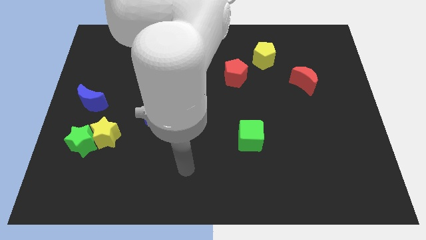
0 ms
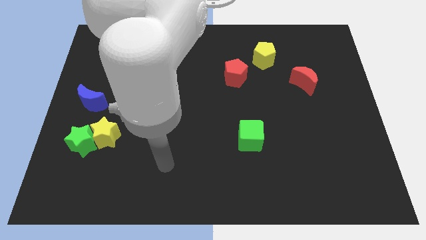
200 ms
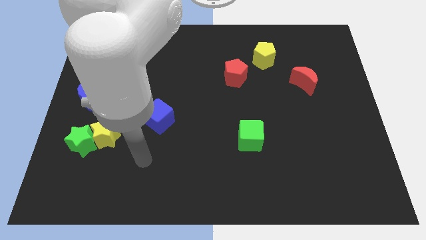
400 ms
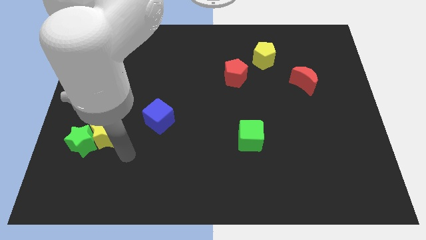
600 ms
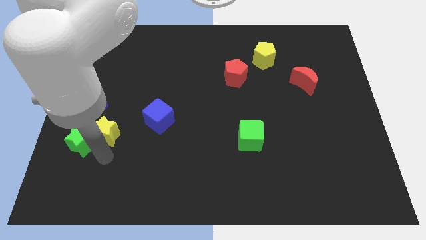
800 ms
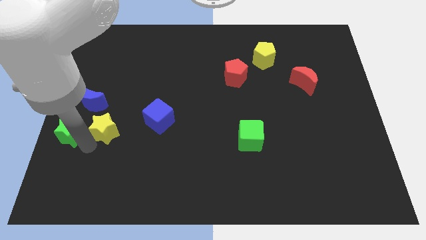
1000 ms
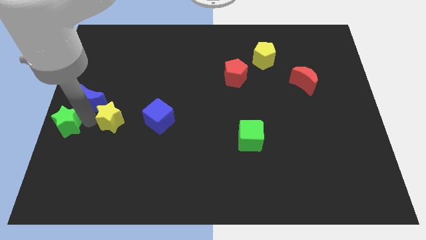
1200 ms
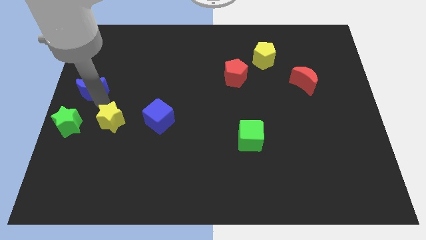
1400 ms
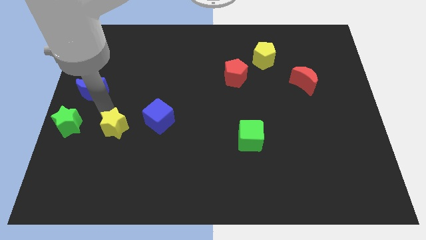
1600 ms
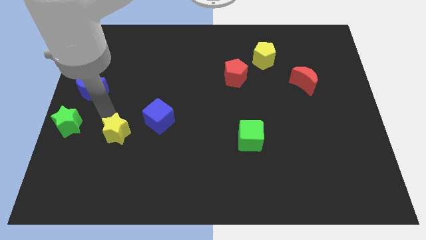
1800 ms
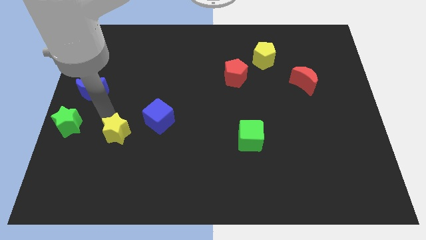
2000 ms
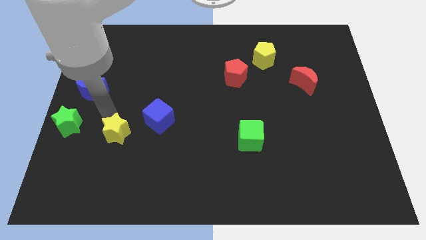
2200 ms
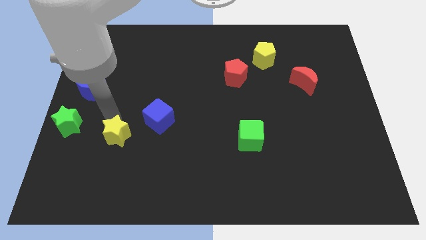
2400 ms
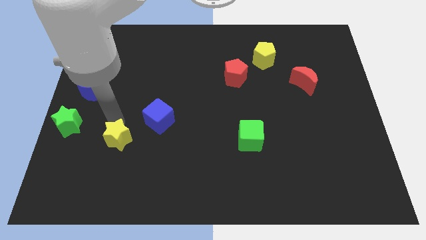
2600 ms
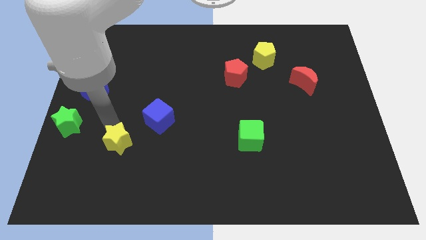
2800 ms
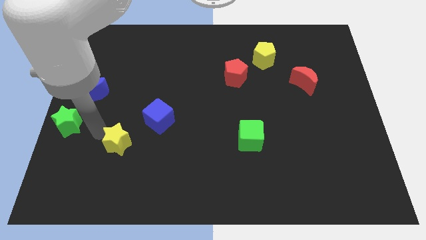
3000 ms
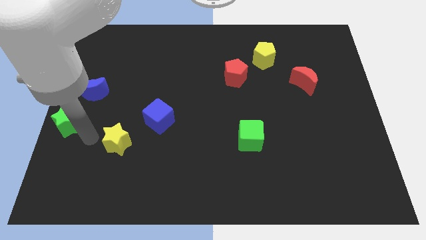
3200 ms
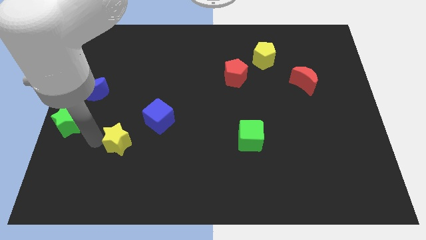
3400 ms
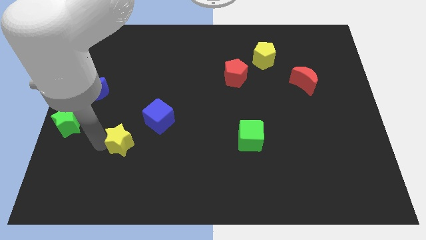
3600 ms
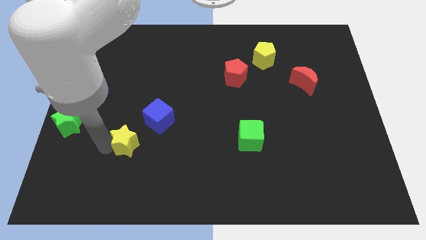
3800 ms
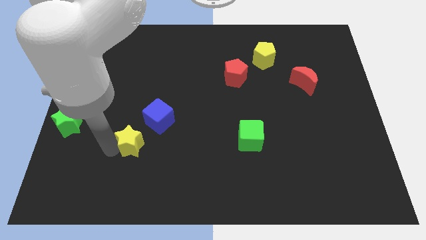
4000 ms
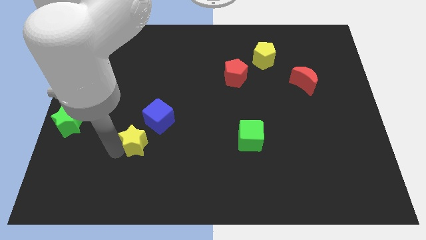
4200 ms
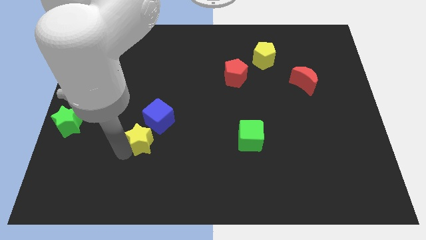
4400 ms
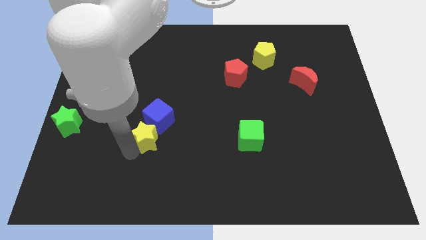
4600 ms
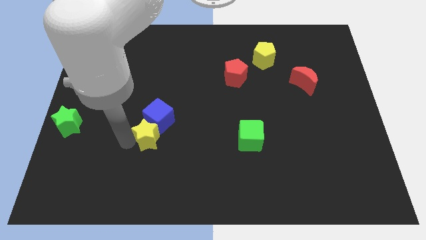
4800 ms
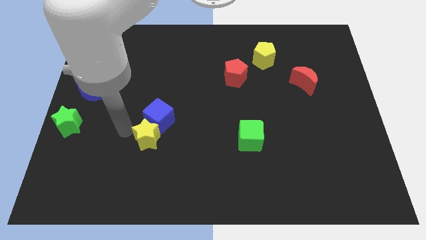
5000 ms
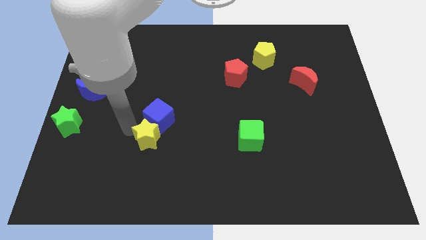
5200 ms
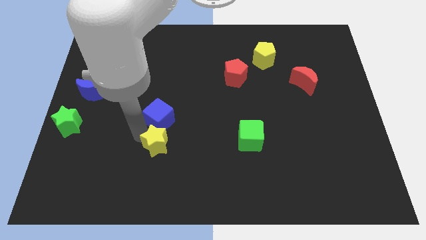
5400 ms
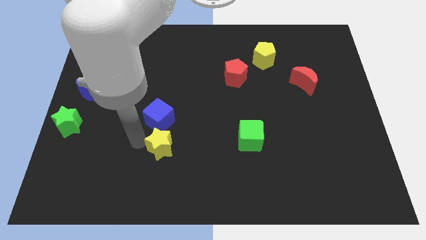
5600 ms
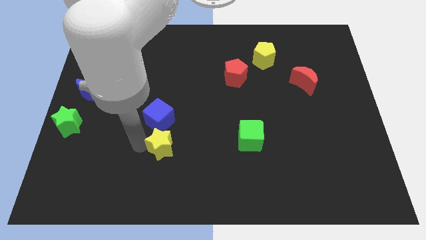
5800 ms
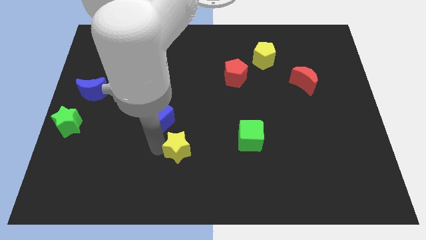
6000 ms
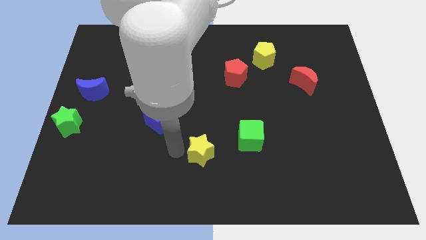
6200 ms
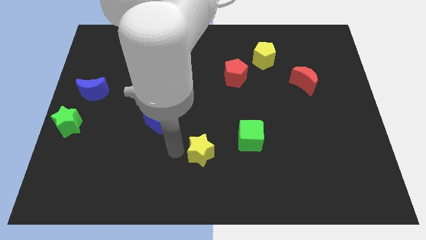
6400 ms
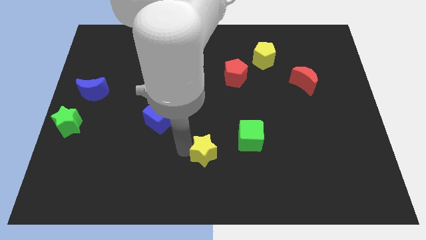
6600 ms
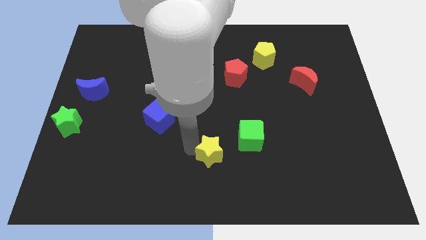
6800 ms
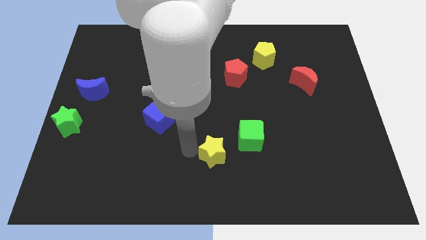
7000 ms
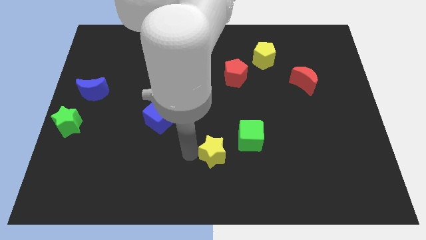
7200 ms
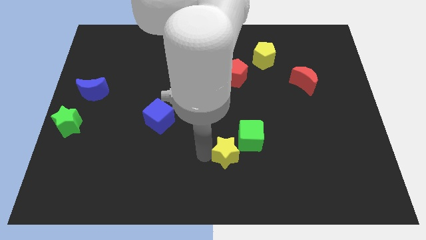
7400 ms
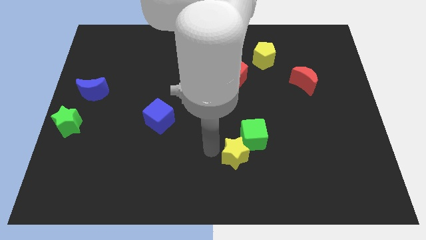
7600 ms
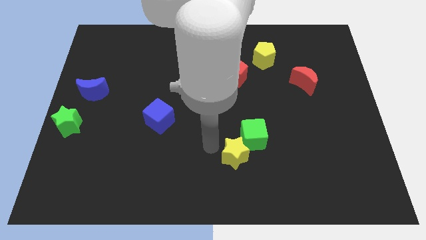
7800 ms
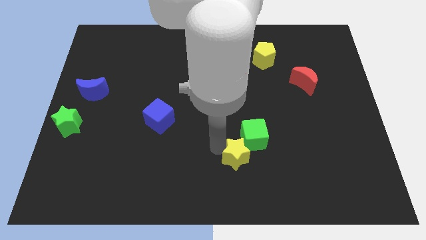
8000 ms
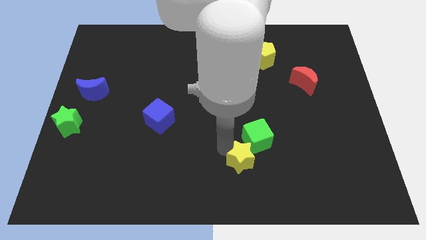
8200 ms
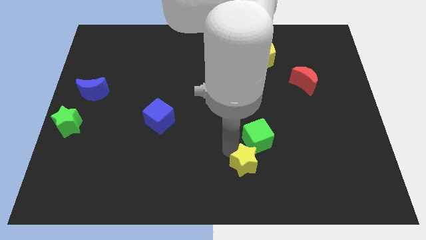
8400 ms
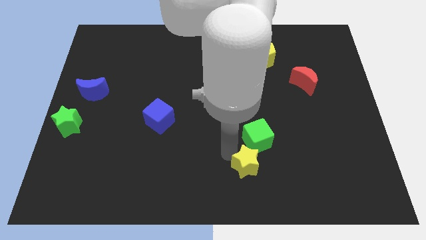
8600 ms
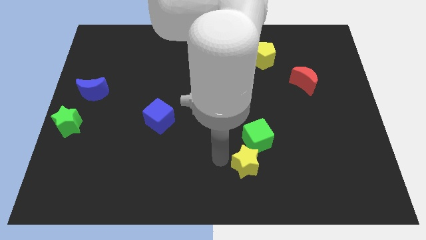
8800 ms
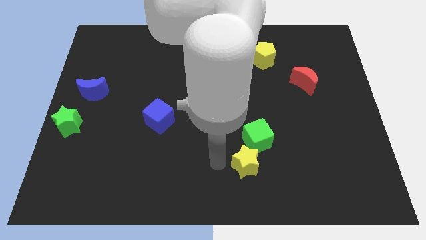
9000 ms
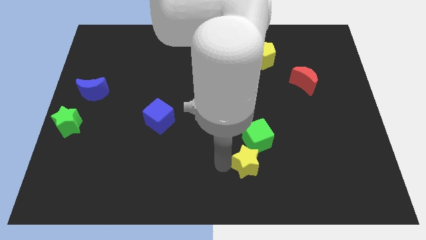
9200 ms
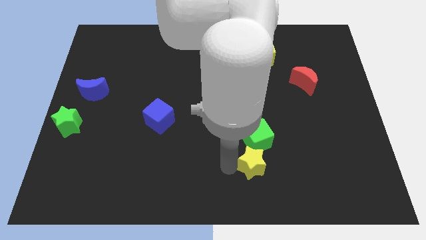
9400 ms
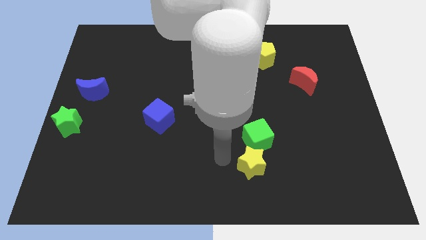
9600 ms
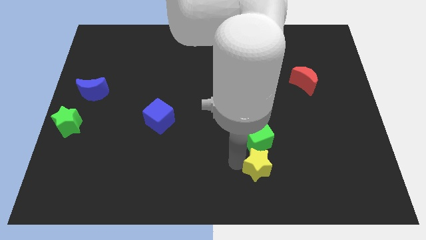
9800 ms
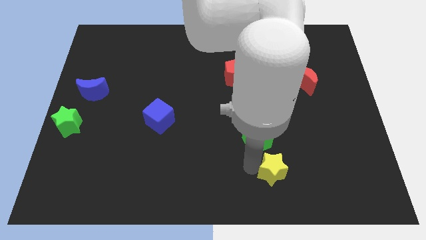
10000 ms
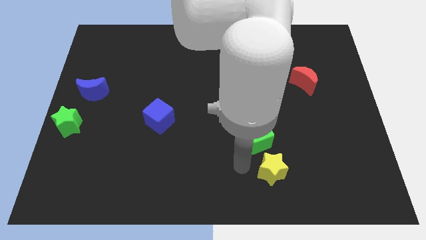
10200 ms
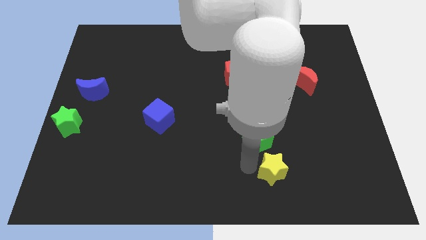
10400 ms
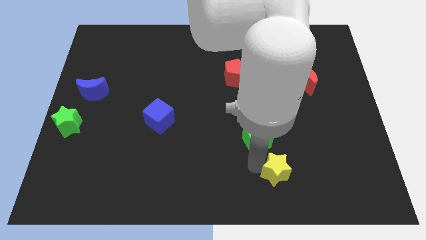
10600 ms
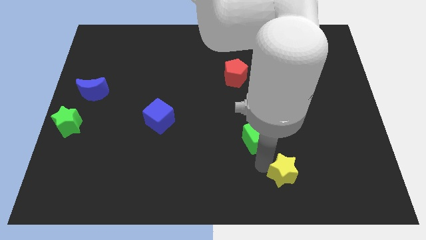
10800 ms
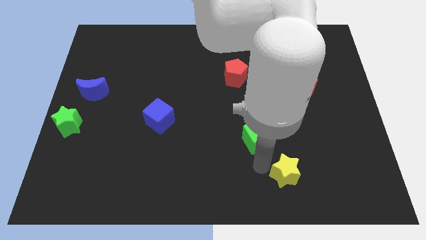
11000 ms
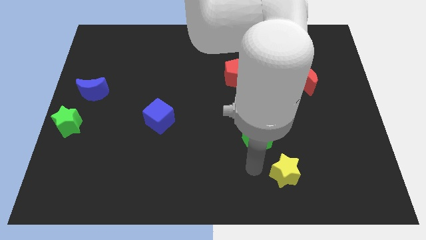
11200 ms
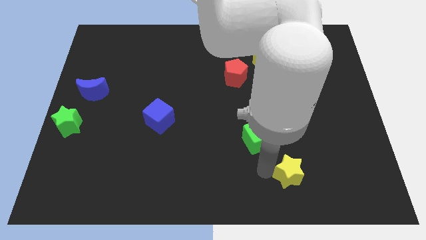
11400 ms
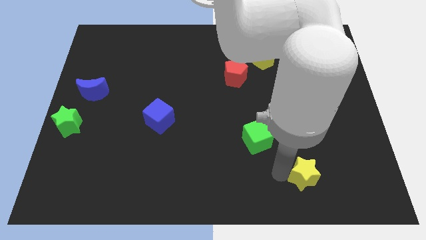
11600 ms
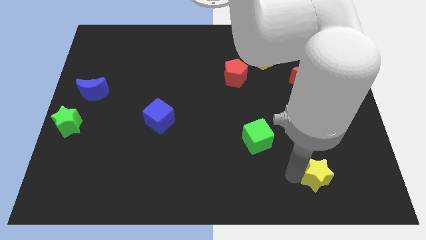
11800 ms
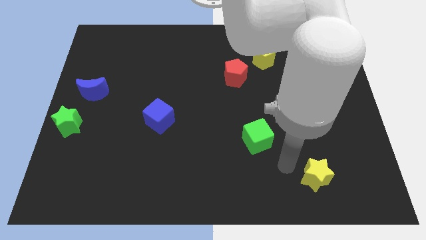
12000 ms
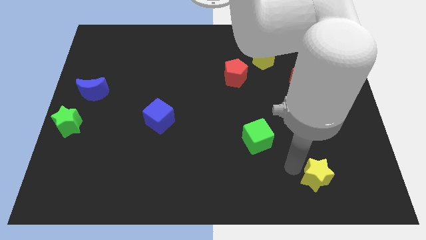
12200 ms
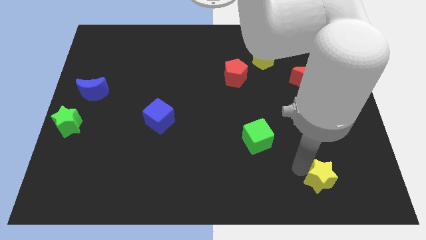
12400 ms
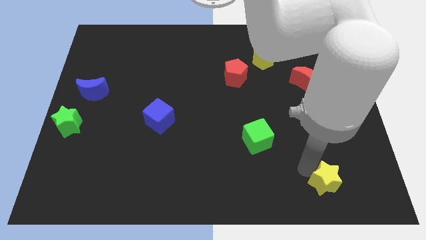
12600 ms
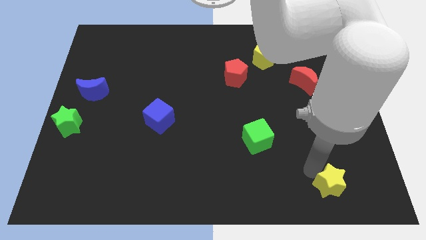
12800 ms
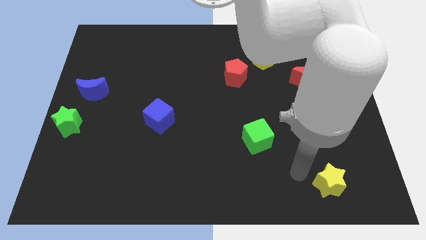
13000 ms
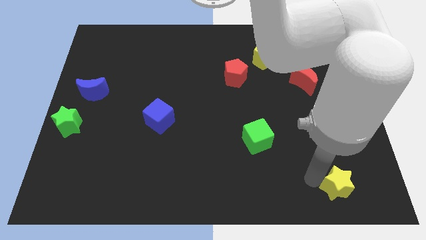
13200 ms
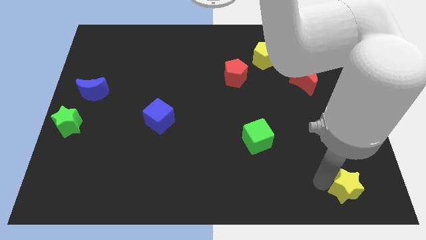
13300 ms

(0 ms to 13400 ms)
move the yellow star to the bottom right of the board
